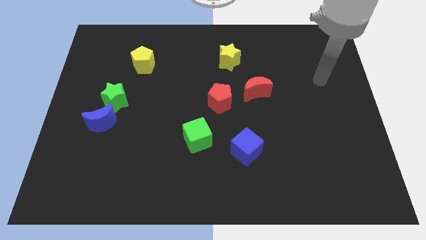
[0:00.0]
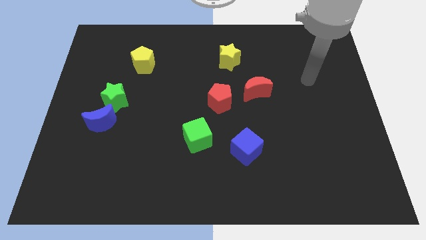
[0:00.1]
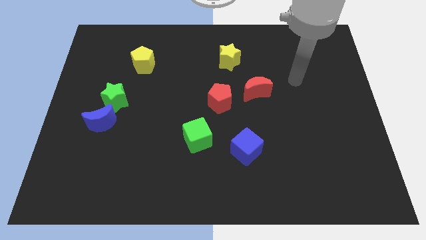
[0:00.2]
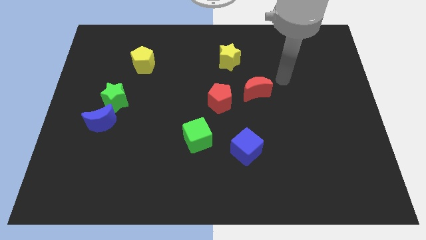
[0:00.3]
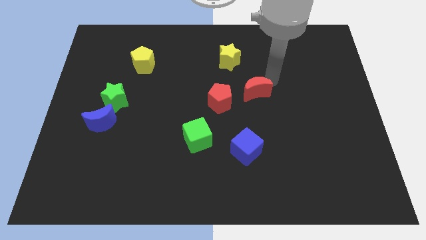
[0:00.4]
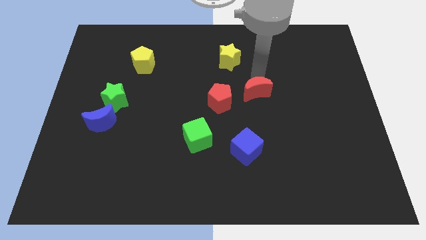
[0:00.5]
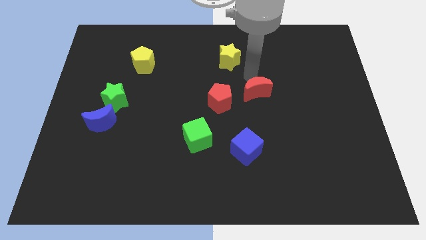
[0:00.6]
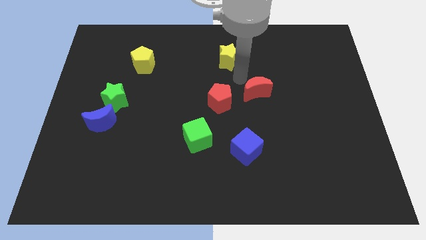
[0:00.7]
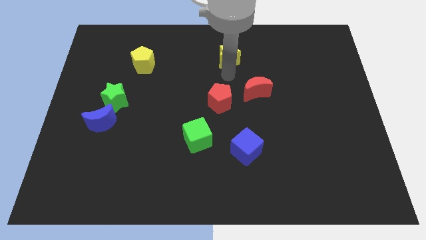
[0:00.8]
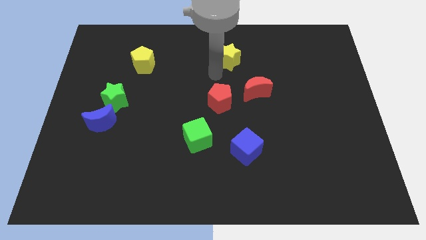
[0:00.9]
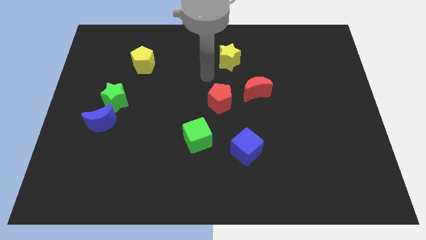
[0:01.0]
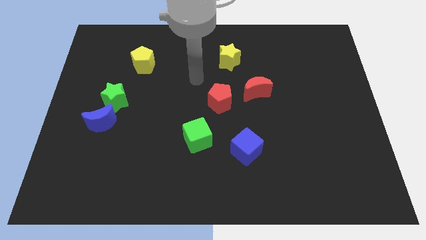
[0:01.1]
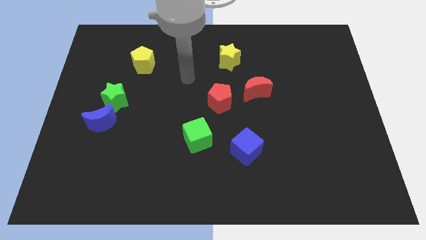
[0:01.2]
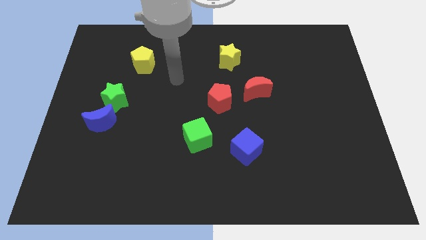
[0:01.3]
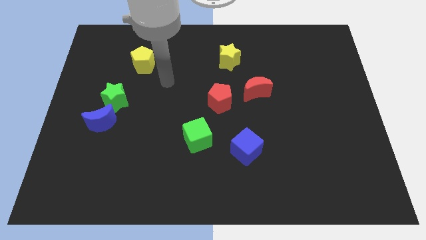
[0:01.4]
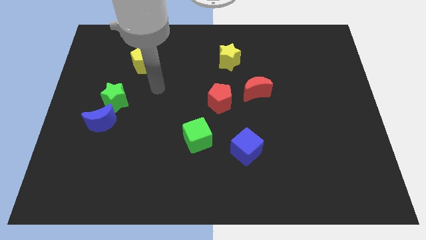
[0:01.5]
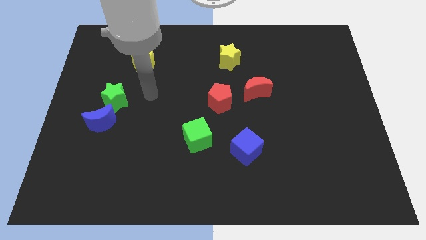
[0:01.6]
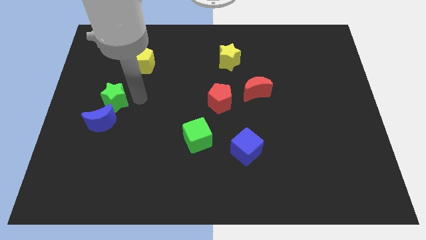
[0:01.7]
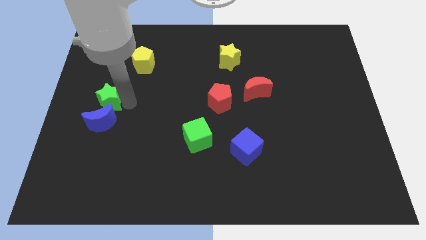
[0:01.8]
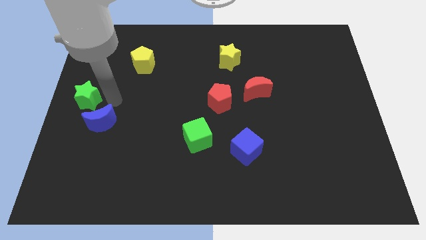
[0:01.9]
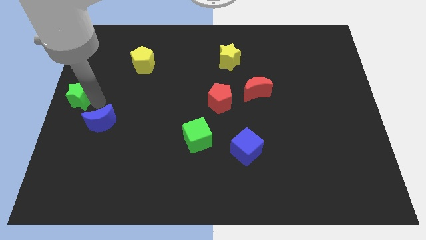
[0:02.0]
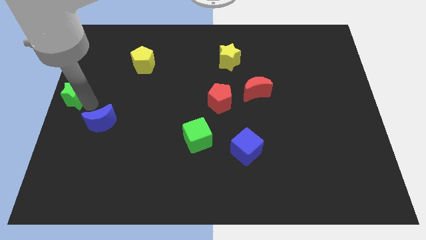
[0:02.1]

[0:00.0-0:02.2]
move the blue moon away from the green star

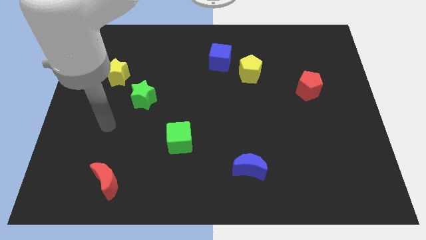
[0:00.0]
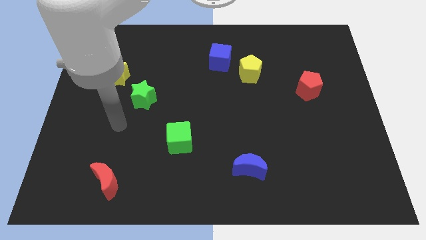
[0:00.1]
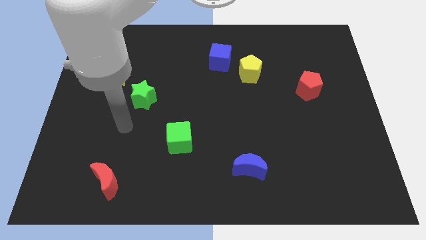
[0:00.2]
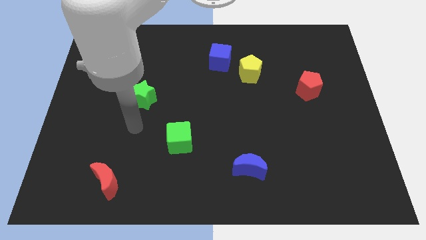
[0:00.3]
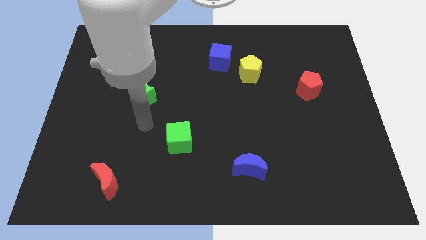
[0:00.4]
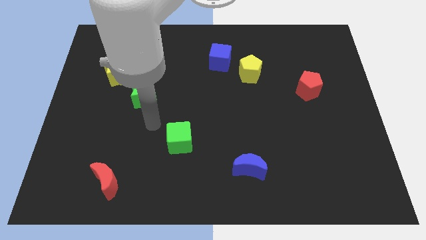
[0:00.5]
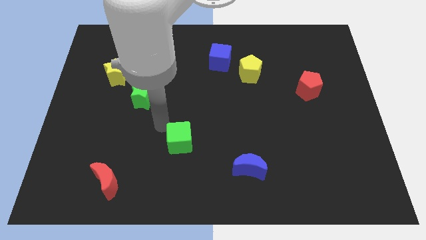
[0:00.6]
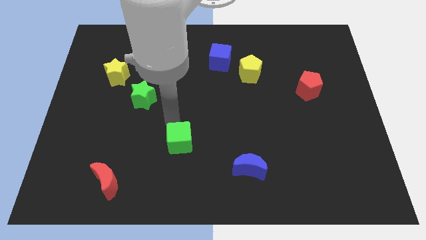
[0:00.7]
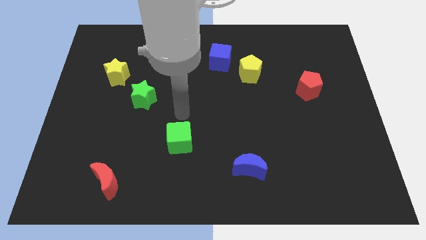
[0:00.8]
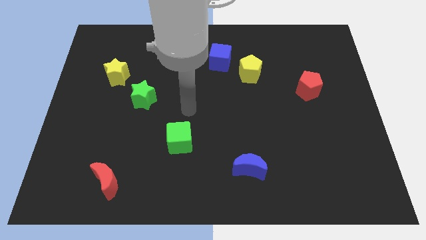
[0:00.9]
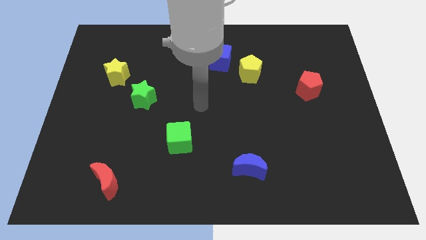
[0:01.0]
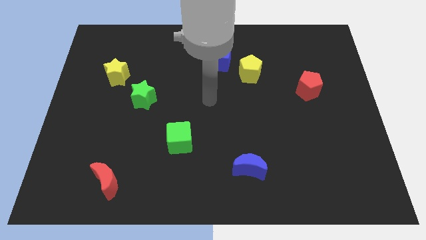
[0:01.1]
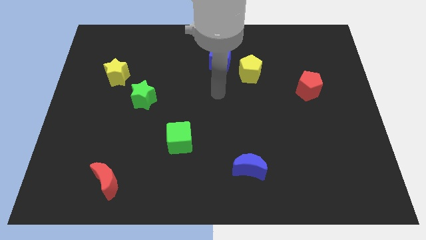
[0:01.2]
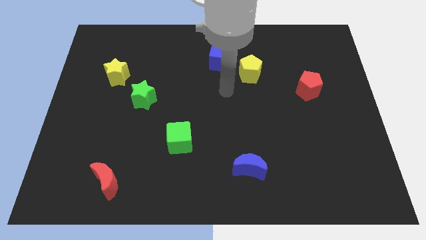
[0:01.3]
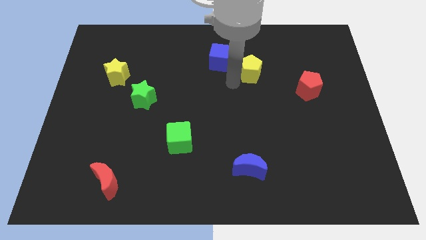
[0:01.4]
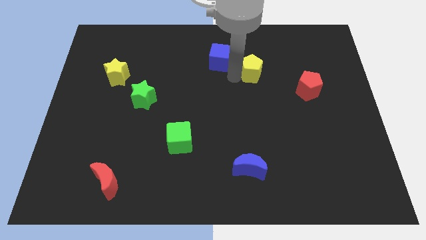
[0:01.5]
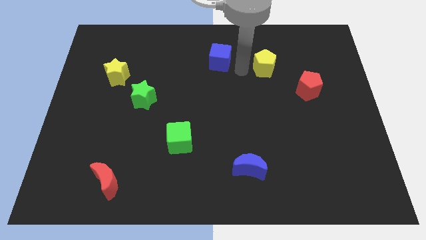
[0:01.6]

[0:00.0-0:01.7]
pull the blue cube apart from the yellow pentagon

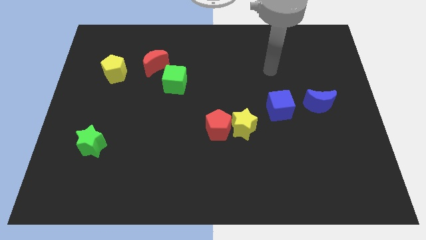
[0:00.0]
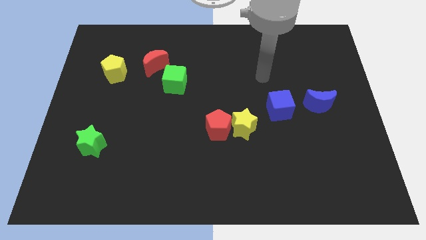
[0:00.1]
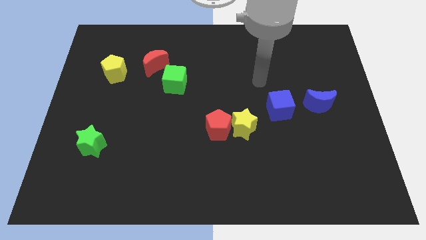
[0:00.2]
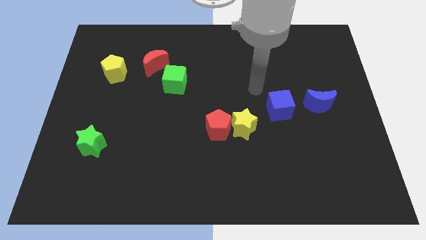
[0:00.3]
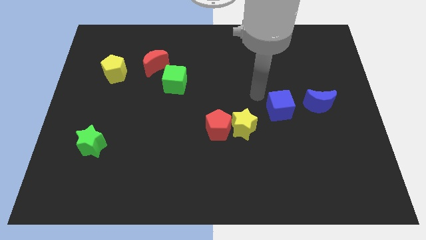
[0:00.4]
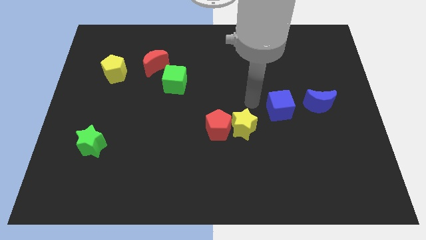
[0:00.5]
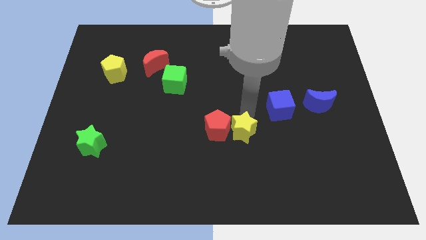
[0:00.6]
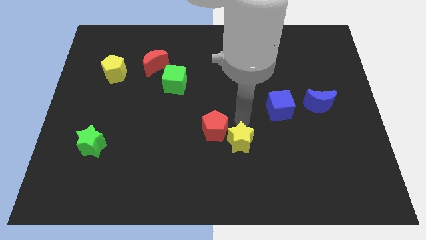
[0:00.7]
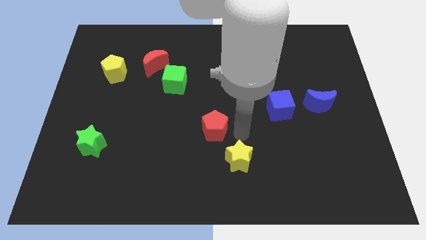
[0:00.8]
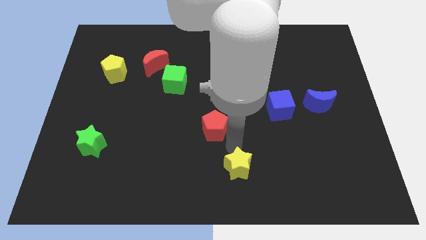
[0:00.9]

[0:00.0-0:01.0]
separate the red pentagon from the yellow star

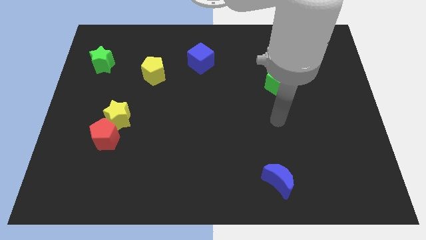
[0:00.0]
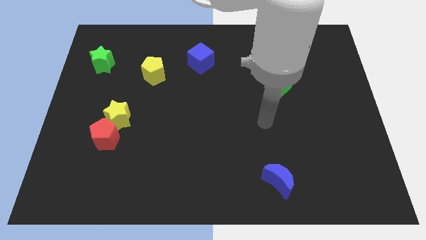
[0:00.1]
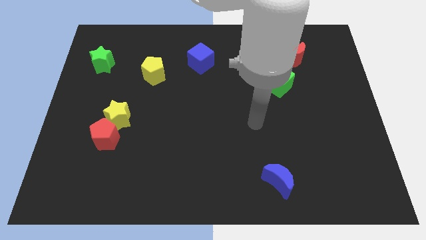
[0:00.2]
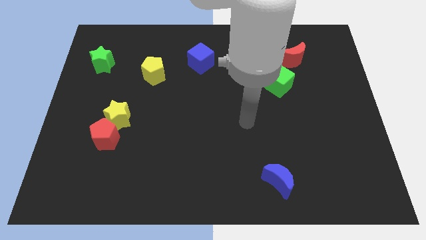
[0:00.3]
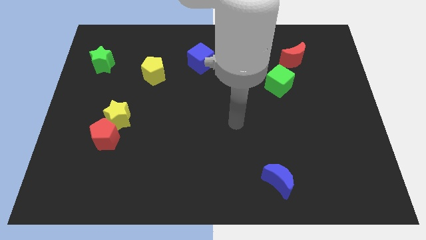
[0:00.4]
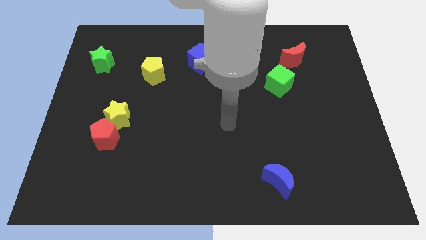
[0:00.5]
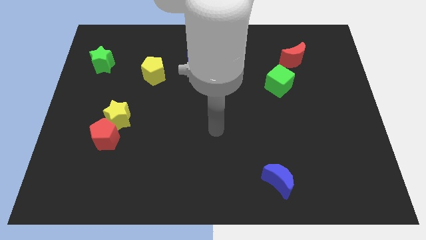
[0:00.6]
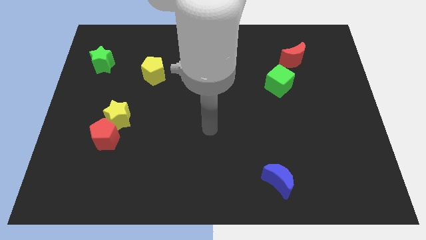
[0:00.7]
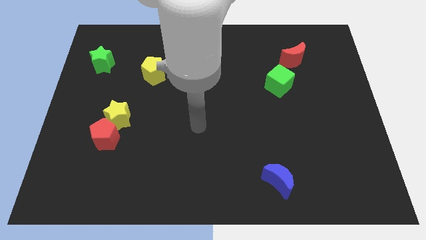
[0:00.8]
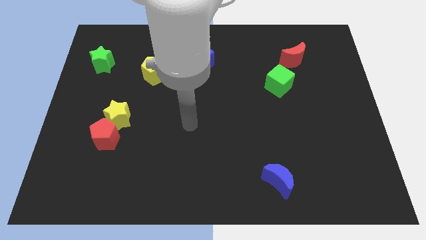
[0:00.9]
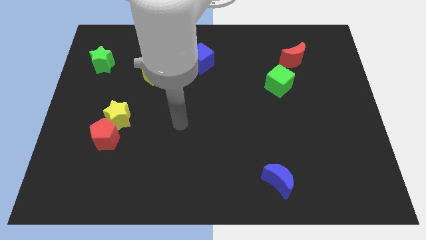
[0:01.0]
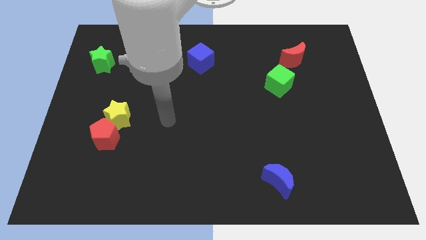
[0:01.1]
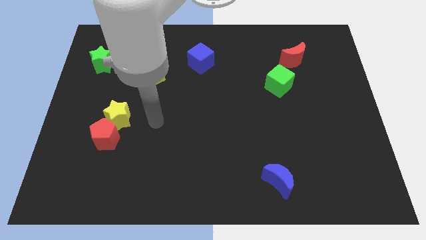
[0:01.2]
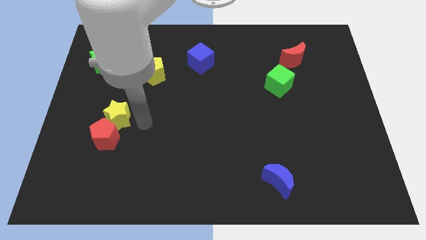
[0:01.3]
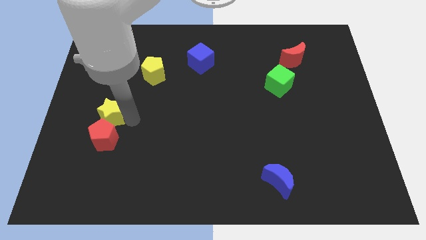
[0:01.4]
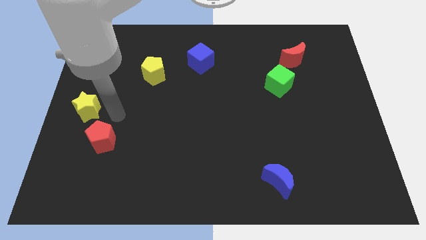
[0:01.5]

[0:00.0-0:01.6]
move the red pentagon away from the yellow star

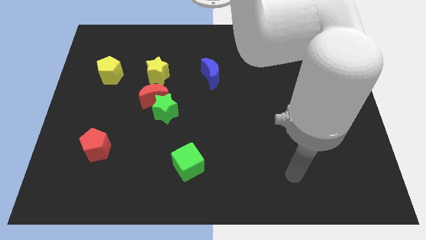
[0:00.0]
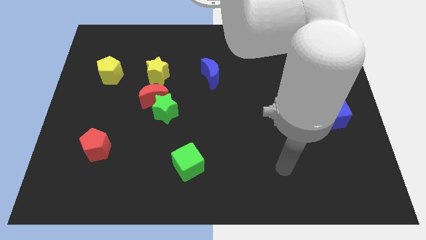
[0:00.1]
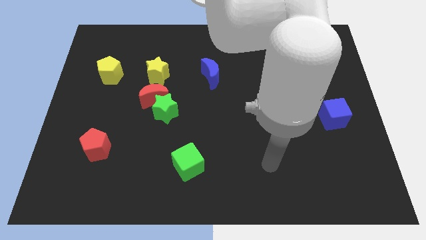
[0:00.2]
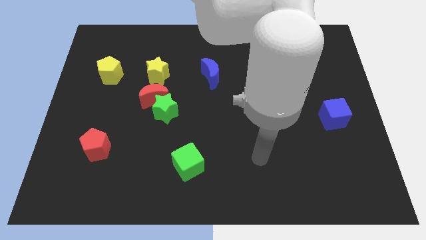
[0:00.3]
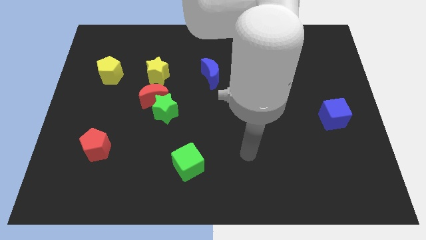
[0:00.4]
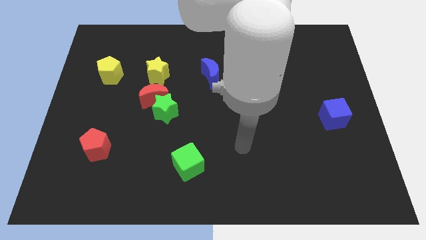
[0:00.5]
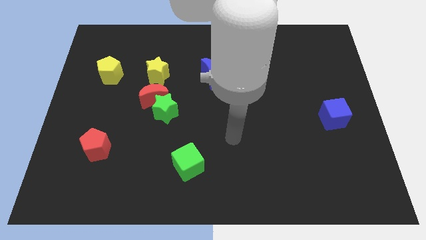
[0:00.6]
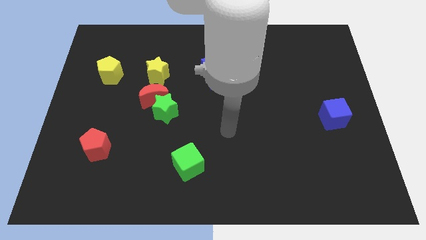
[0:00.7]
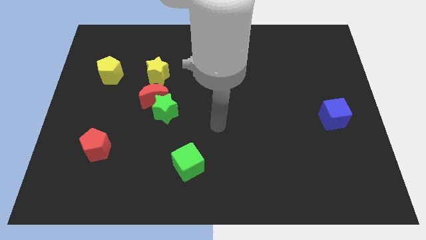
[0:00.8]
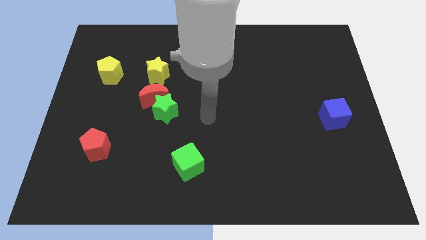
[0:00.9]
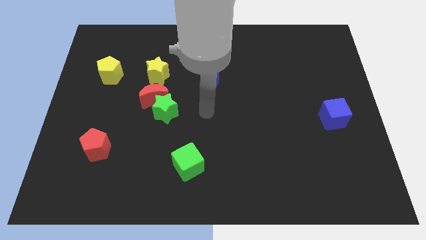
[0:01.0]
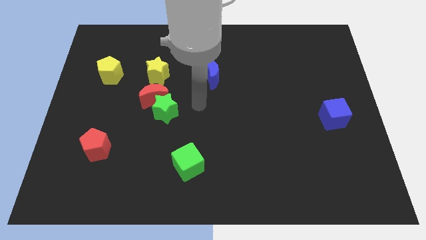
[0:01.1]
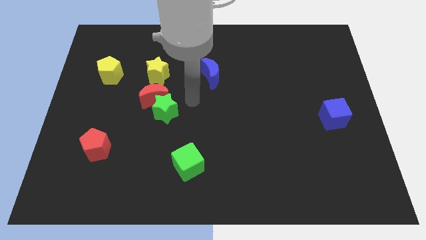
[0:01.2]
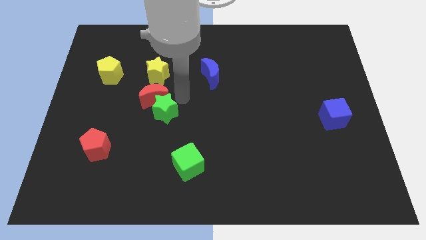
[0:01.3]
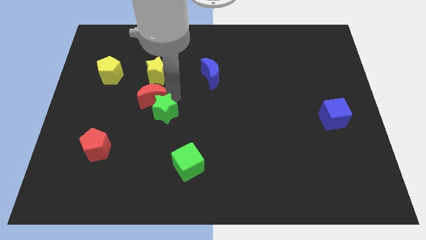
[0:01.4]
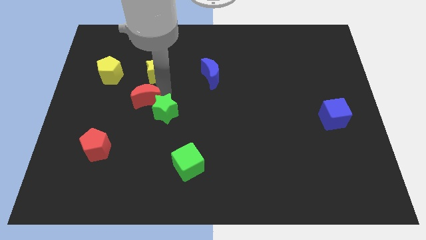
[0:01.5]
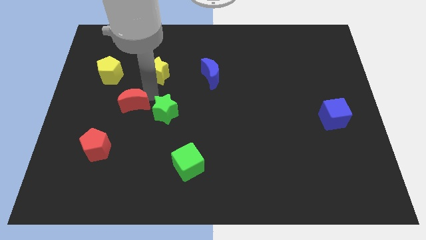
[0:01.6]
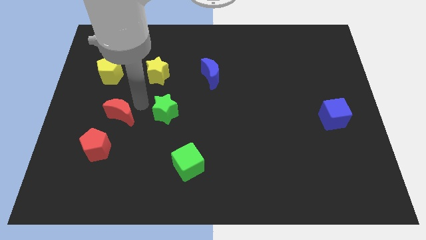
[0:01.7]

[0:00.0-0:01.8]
separate the green star from the red moon

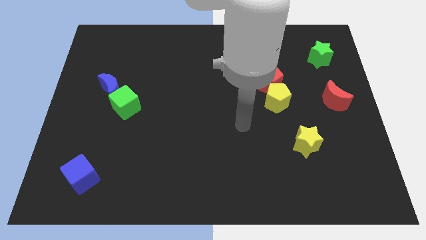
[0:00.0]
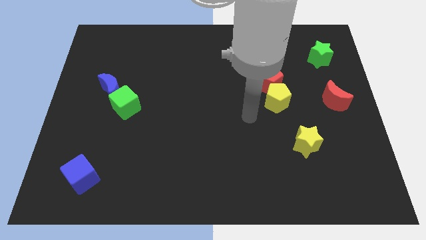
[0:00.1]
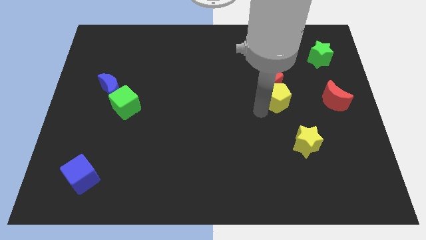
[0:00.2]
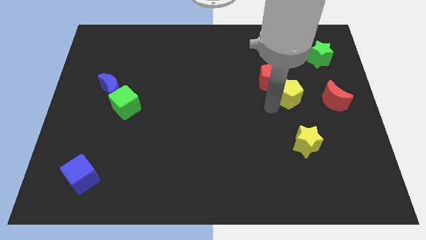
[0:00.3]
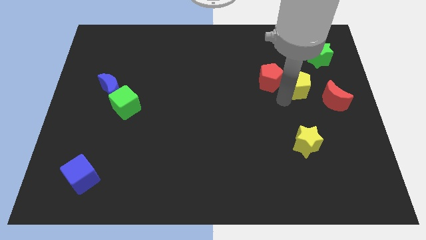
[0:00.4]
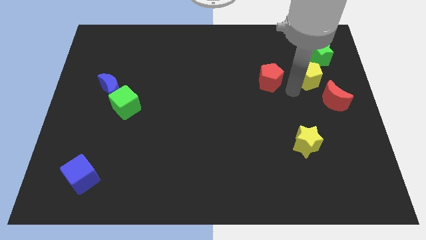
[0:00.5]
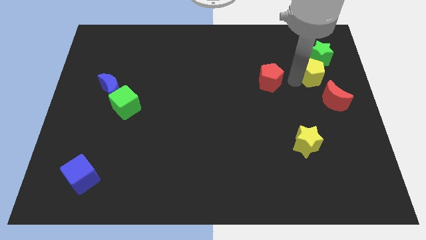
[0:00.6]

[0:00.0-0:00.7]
pull the red pentagon apart from the yellow pentagon

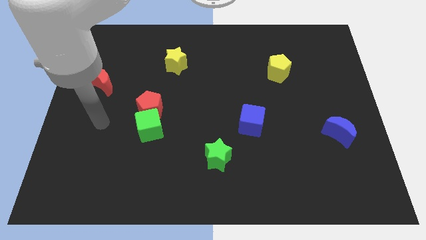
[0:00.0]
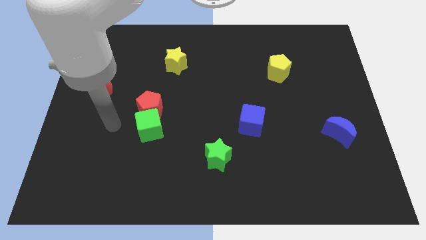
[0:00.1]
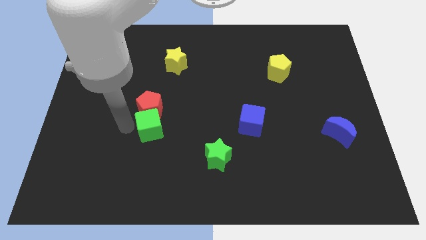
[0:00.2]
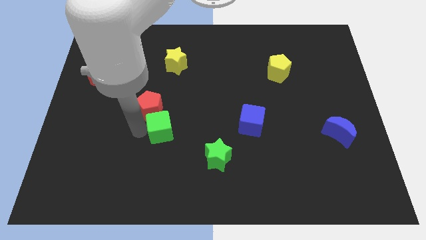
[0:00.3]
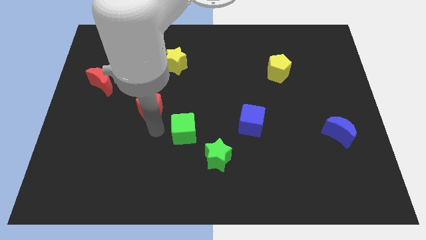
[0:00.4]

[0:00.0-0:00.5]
pull the red pentagon apart from the green cube
